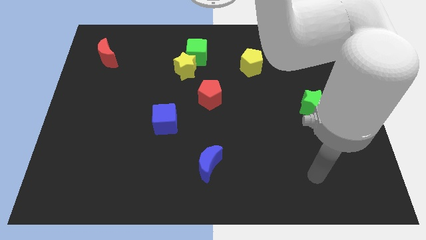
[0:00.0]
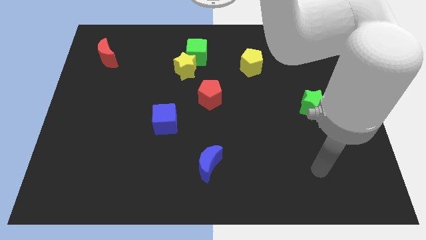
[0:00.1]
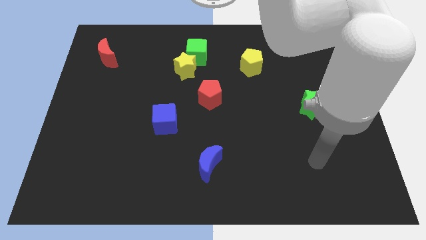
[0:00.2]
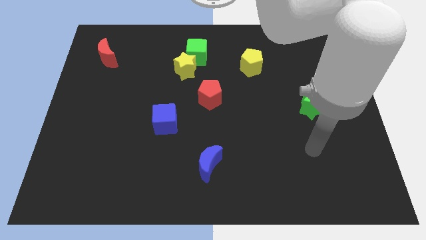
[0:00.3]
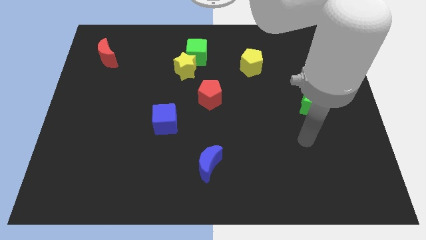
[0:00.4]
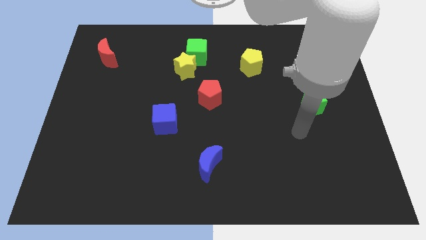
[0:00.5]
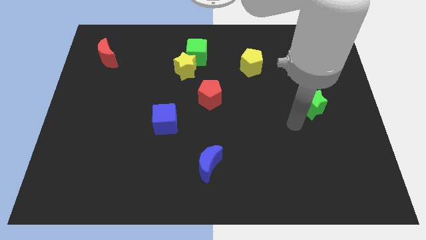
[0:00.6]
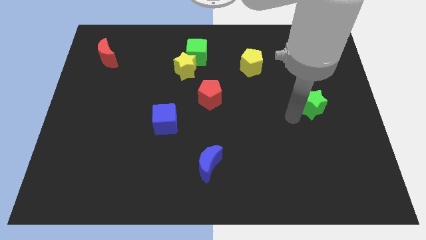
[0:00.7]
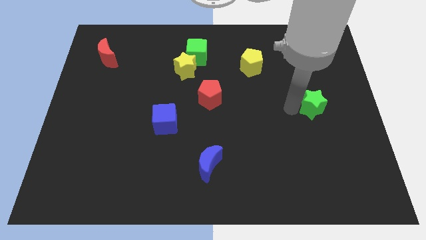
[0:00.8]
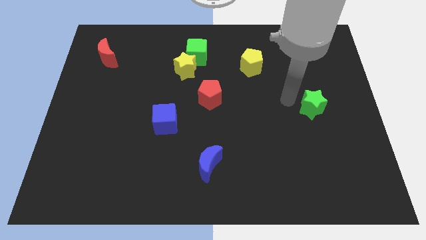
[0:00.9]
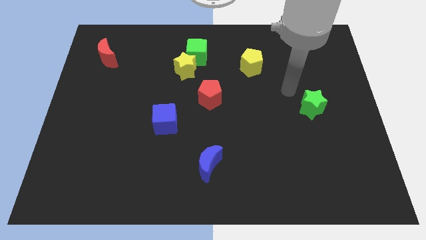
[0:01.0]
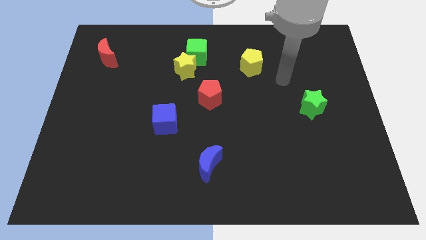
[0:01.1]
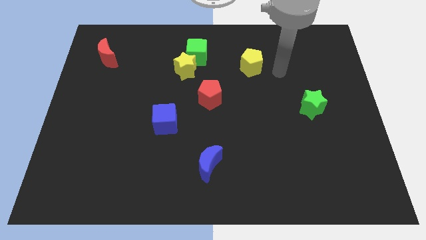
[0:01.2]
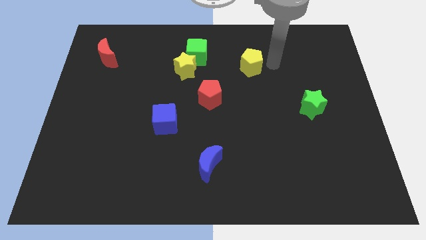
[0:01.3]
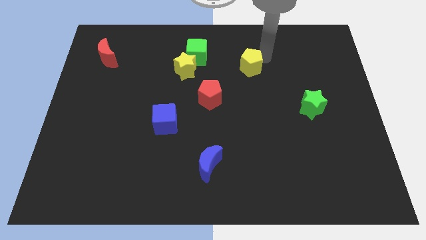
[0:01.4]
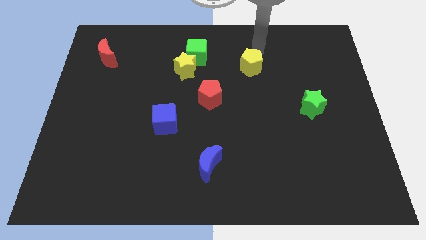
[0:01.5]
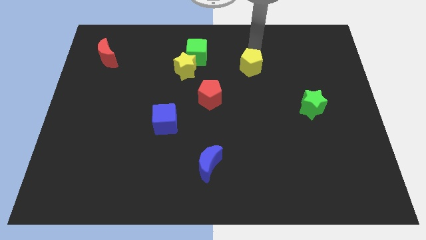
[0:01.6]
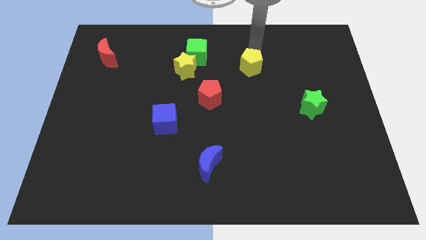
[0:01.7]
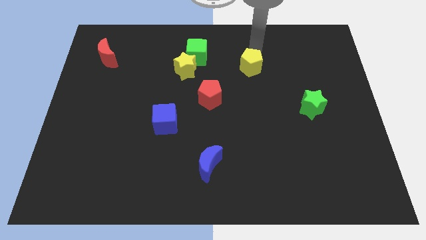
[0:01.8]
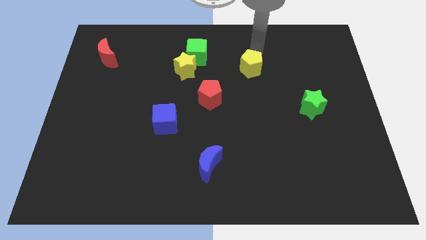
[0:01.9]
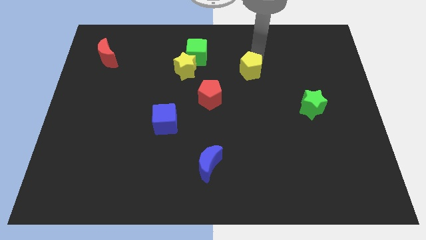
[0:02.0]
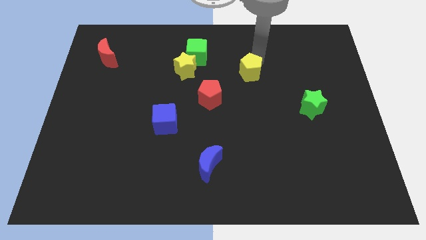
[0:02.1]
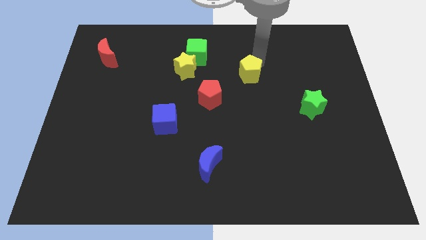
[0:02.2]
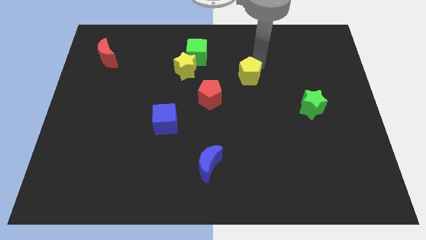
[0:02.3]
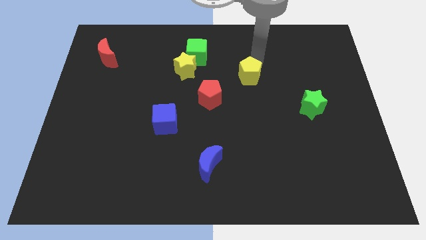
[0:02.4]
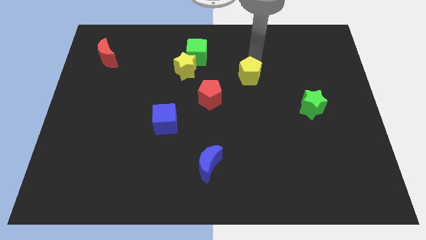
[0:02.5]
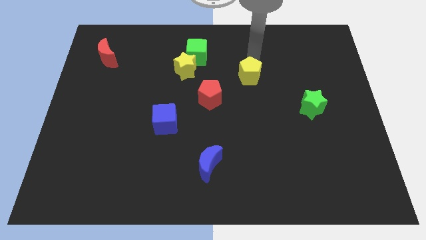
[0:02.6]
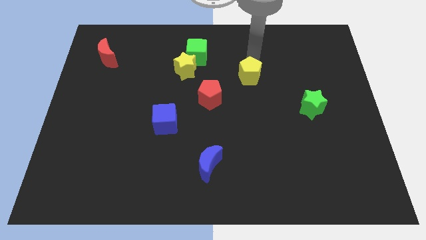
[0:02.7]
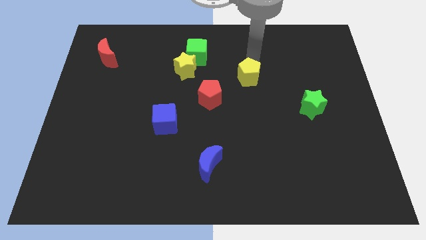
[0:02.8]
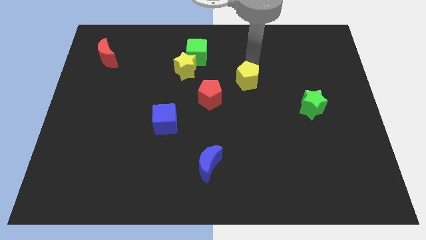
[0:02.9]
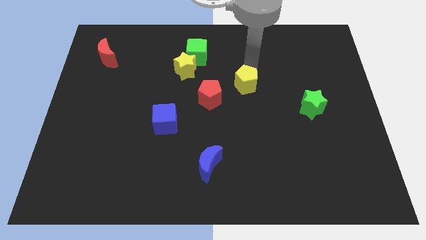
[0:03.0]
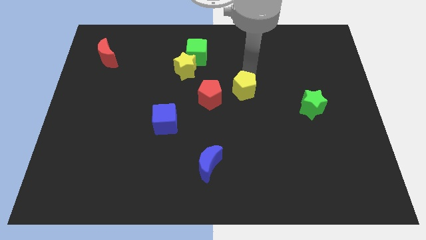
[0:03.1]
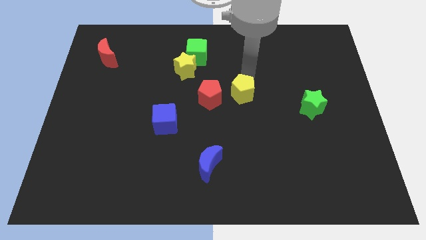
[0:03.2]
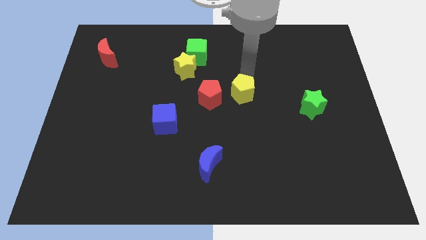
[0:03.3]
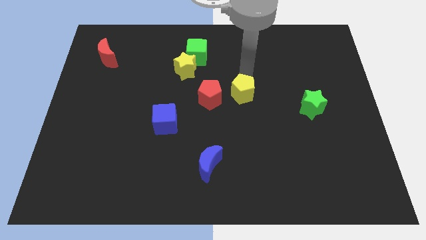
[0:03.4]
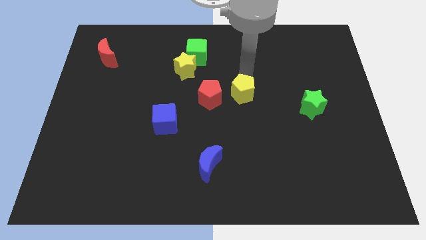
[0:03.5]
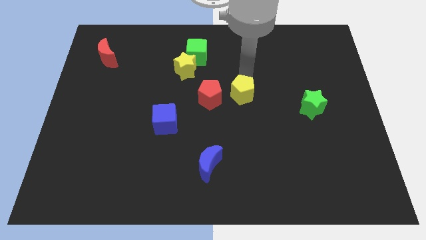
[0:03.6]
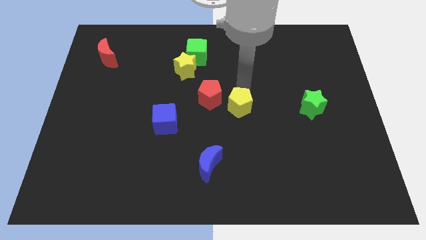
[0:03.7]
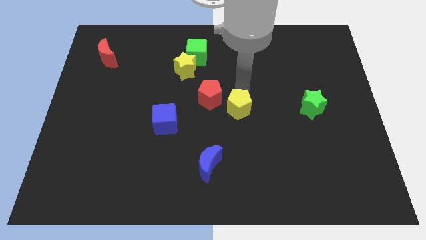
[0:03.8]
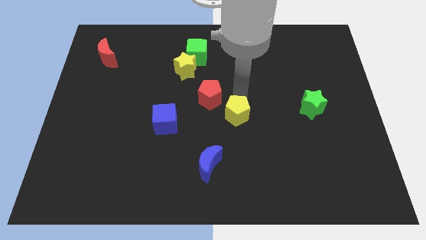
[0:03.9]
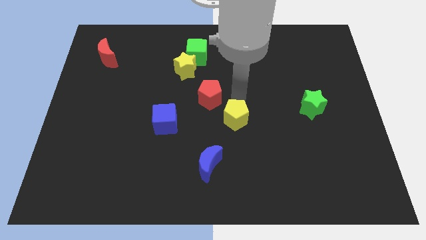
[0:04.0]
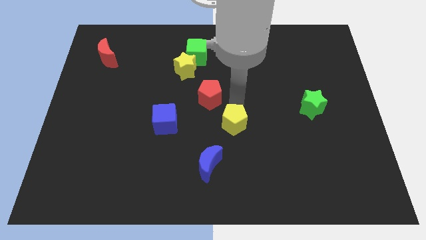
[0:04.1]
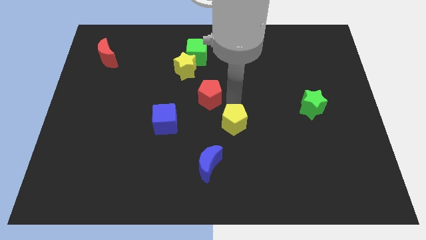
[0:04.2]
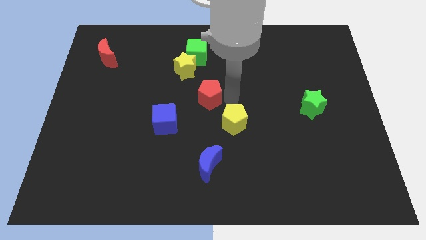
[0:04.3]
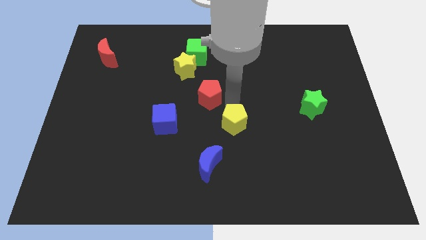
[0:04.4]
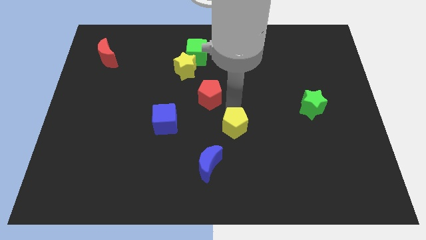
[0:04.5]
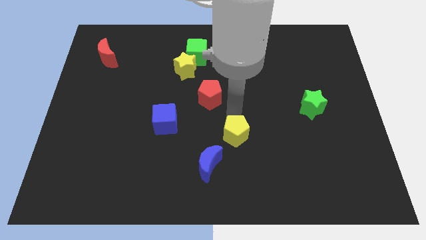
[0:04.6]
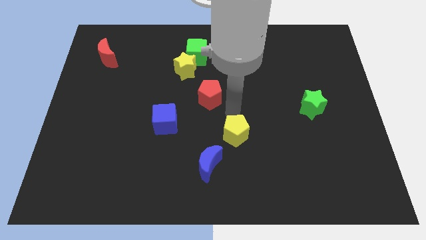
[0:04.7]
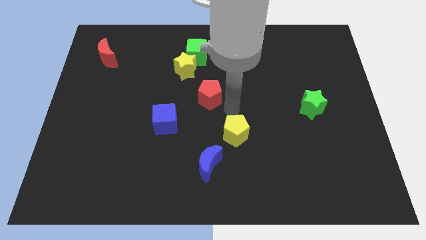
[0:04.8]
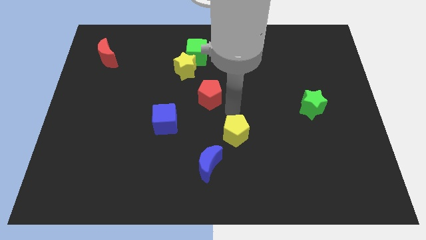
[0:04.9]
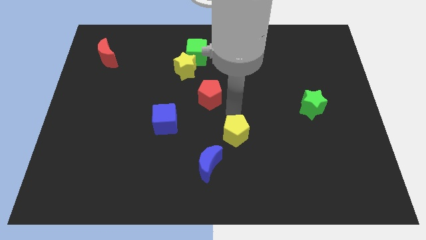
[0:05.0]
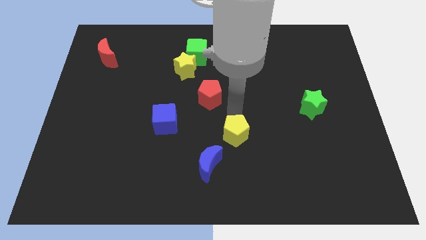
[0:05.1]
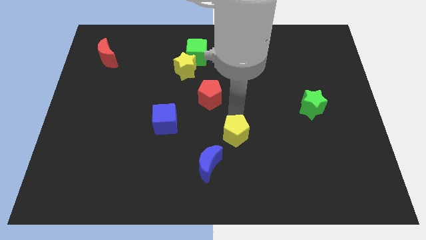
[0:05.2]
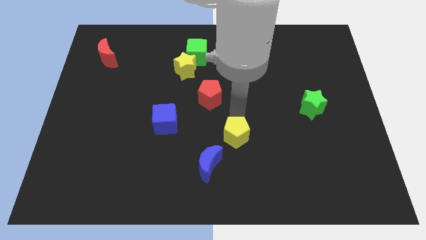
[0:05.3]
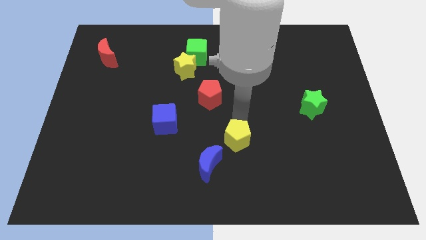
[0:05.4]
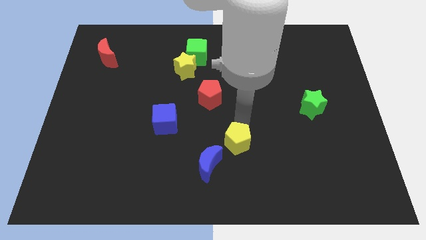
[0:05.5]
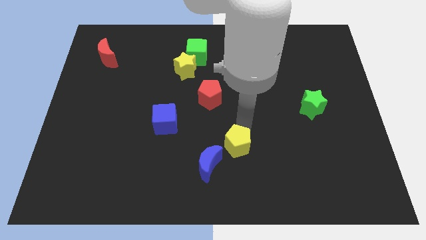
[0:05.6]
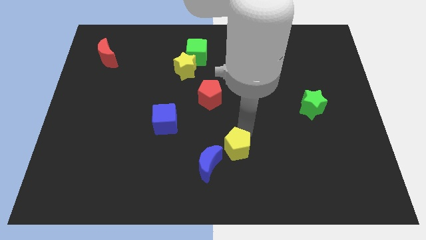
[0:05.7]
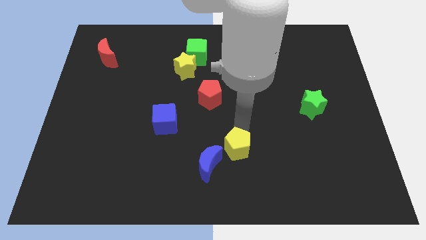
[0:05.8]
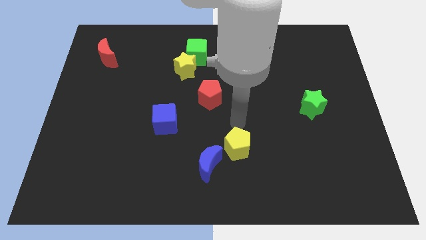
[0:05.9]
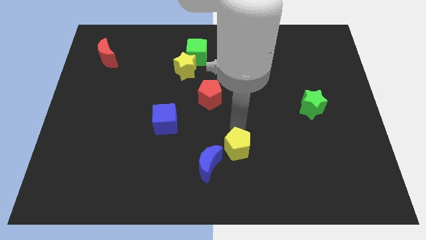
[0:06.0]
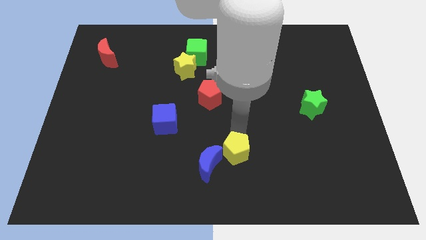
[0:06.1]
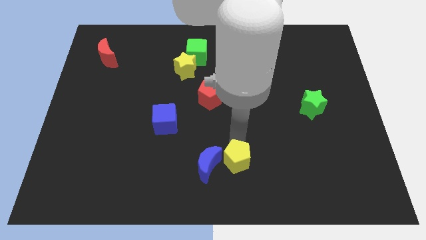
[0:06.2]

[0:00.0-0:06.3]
put the yellow pentagon to the bottom side

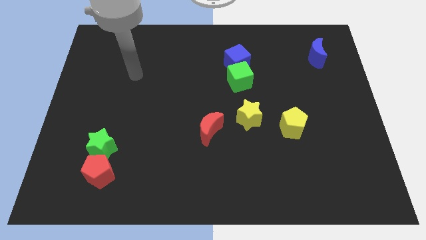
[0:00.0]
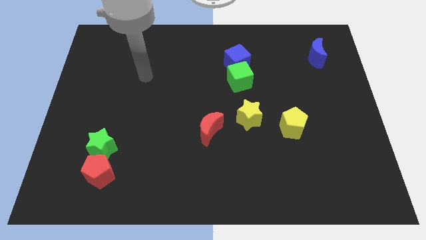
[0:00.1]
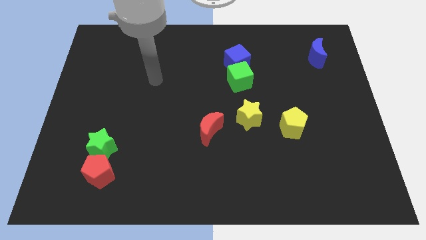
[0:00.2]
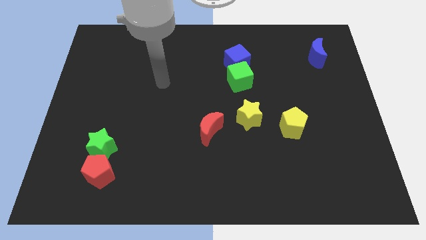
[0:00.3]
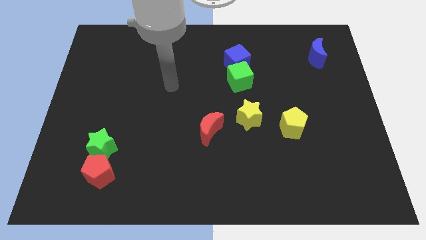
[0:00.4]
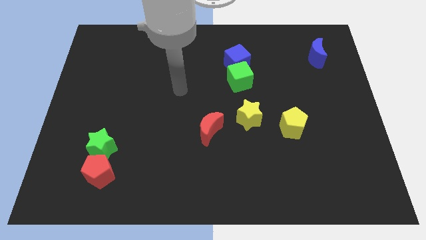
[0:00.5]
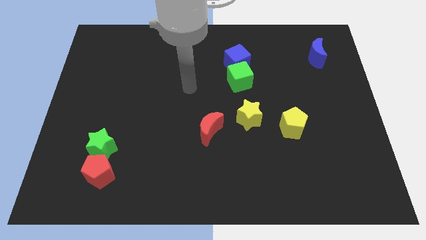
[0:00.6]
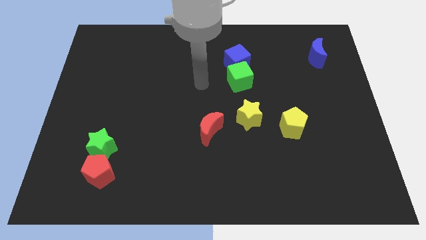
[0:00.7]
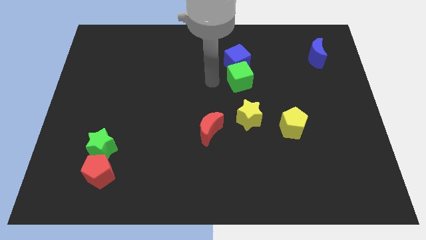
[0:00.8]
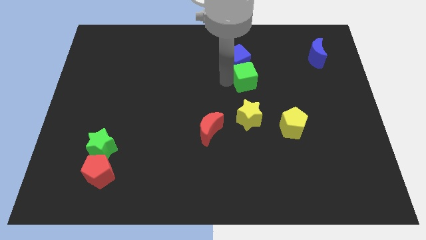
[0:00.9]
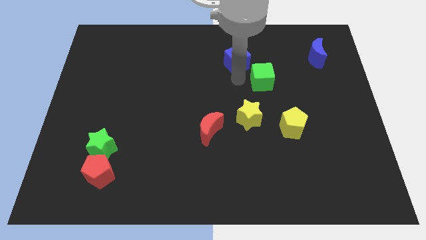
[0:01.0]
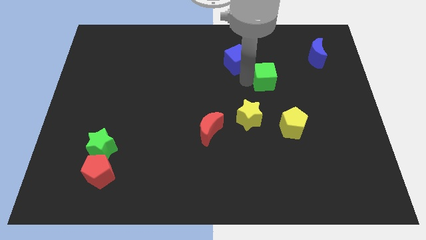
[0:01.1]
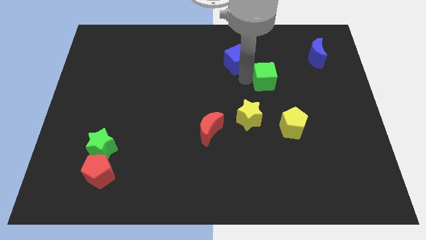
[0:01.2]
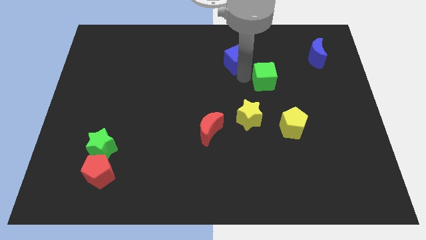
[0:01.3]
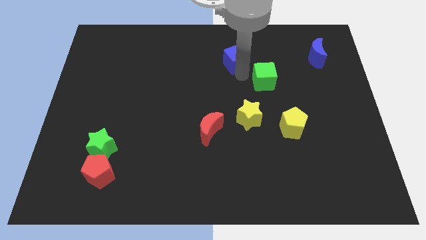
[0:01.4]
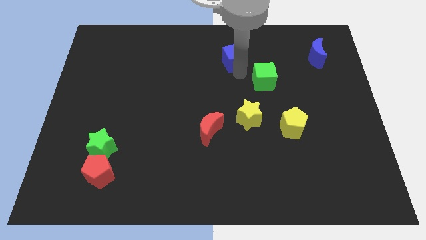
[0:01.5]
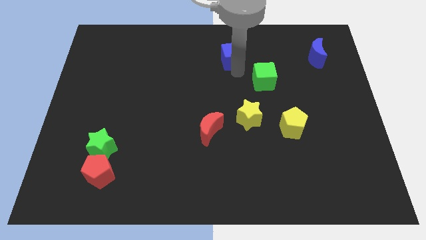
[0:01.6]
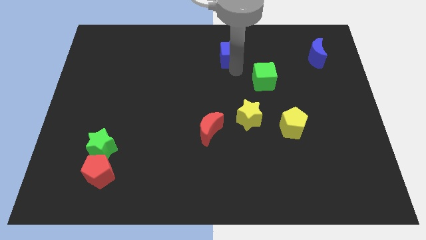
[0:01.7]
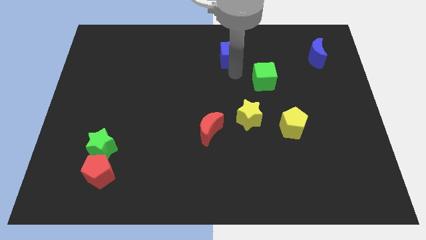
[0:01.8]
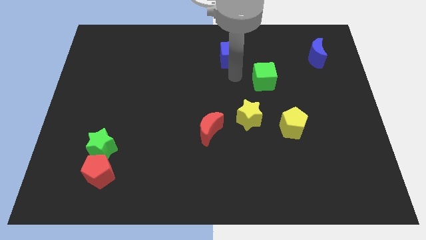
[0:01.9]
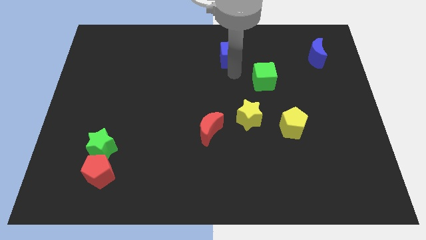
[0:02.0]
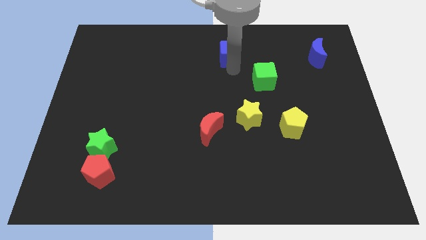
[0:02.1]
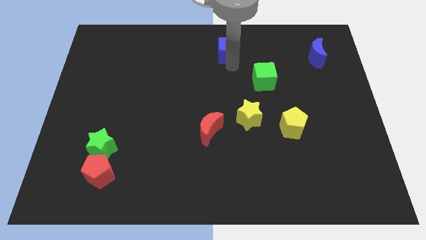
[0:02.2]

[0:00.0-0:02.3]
push the blue cube to the towards your base
